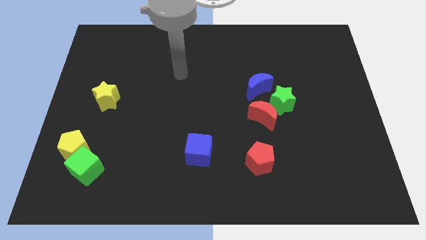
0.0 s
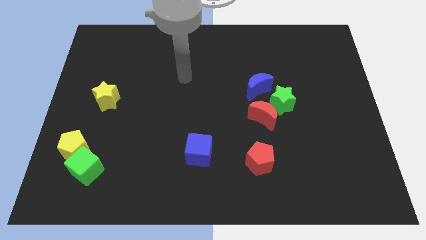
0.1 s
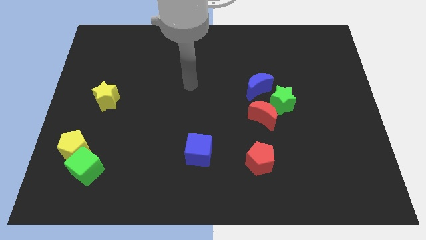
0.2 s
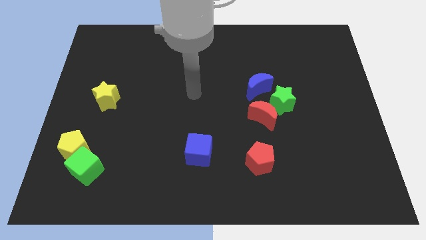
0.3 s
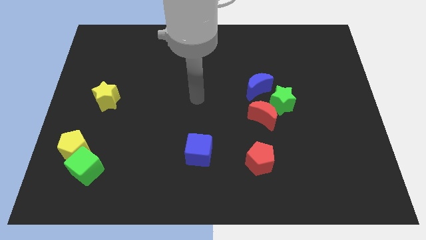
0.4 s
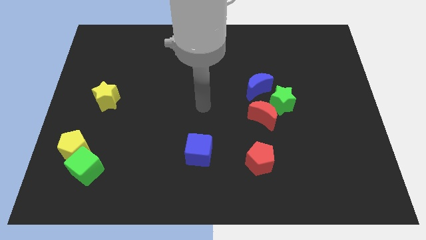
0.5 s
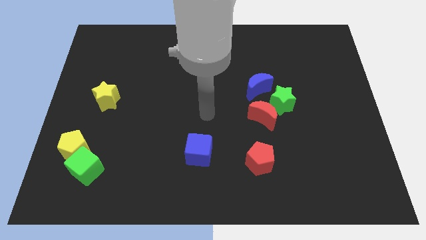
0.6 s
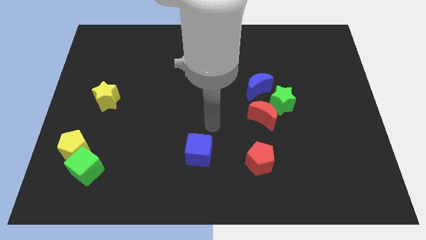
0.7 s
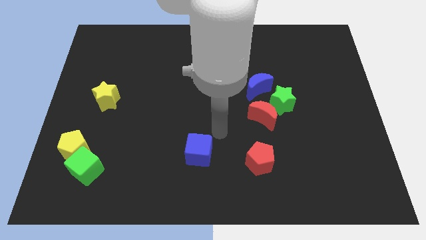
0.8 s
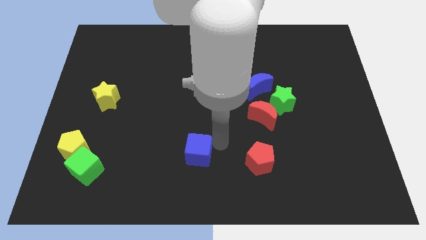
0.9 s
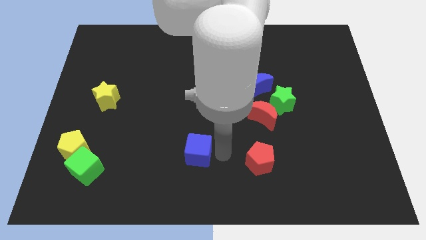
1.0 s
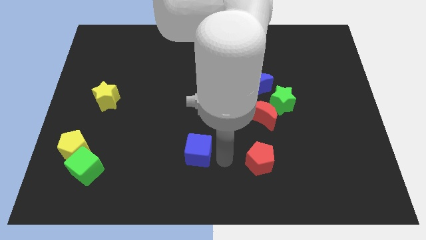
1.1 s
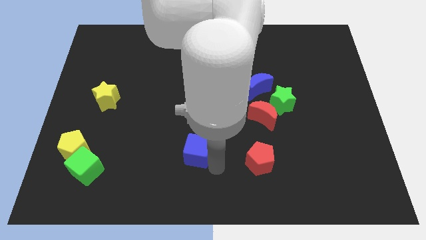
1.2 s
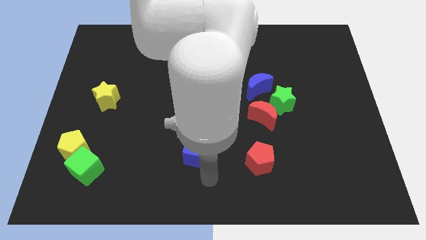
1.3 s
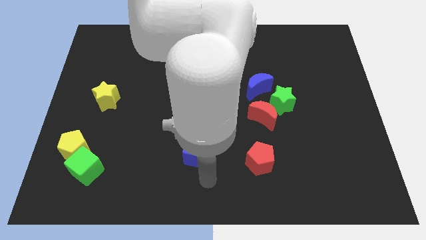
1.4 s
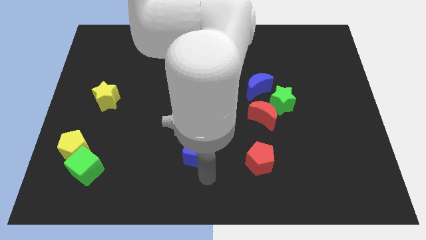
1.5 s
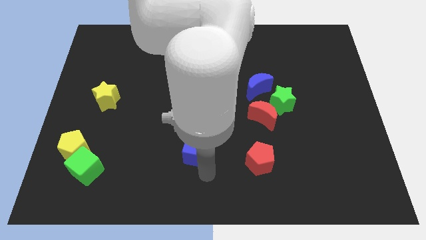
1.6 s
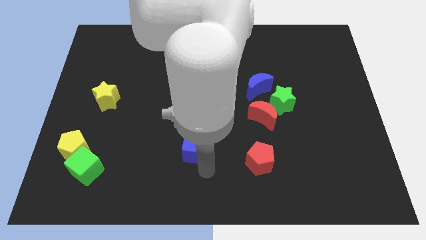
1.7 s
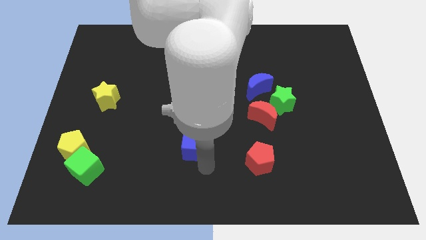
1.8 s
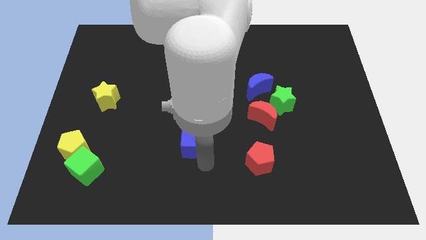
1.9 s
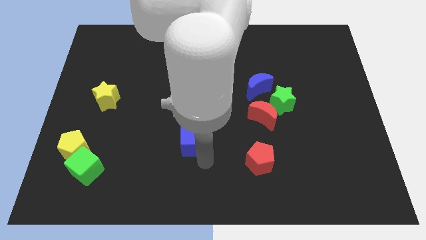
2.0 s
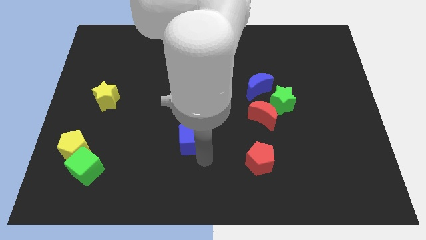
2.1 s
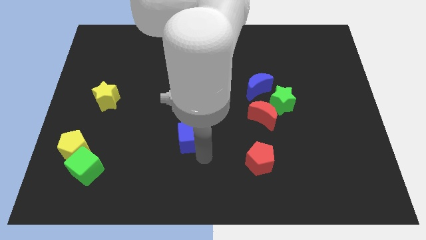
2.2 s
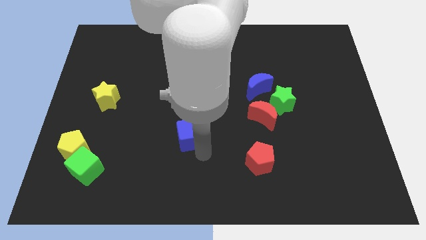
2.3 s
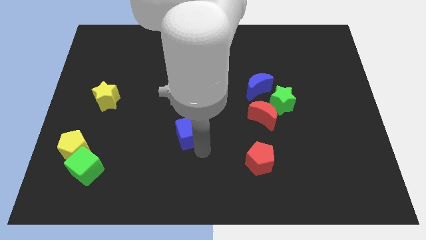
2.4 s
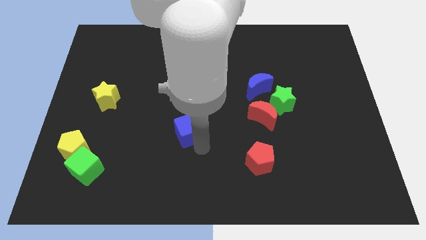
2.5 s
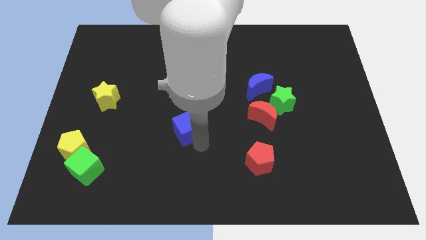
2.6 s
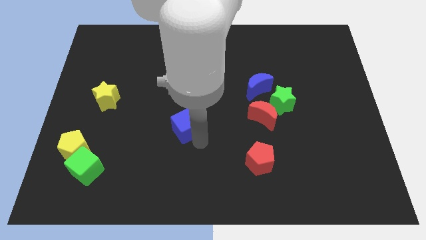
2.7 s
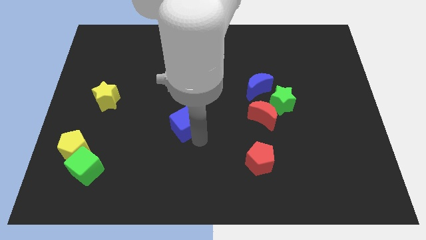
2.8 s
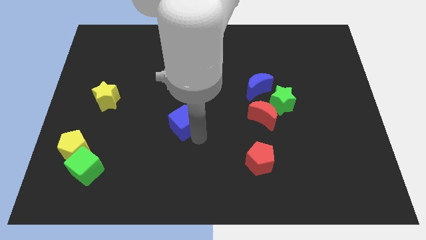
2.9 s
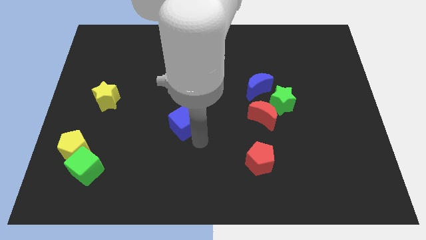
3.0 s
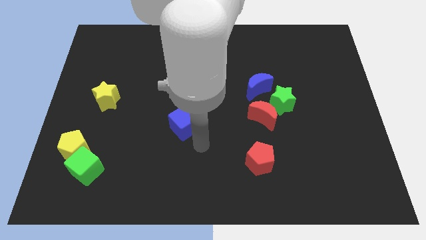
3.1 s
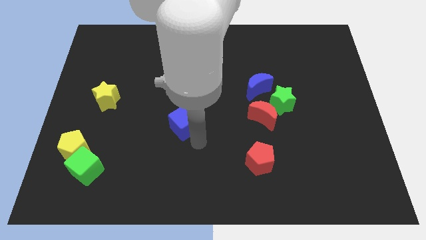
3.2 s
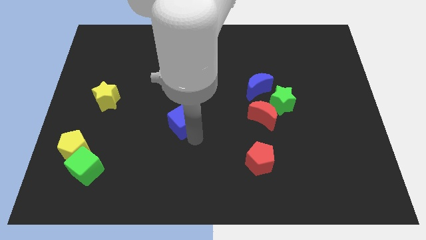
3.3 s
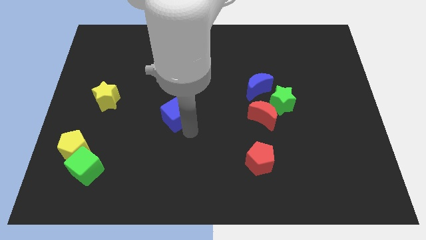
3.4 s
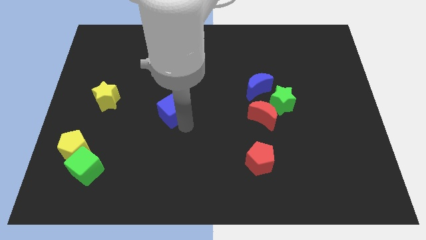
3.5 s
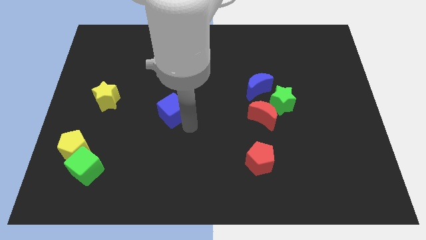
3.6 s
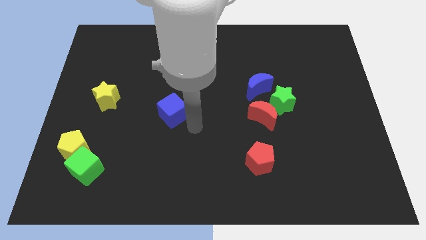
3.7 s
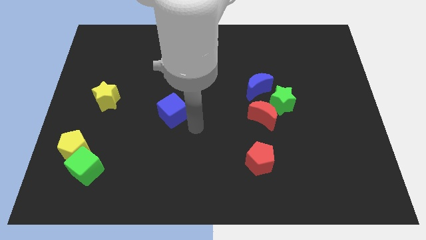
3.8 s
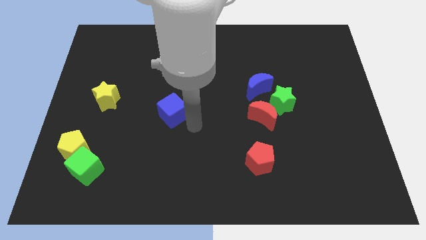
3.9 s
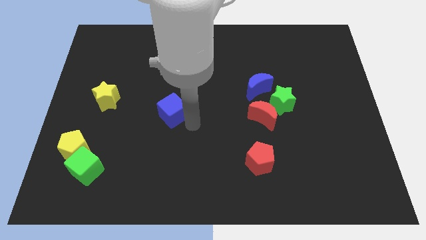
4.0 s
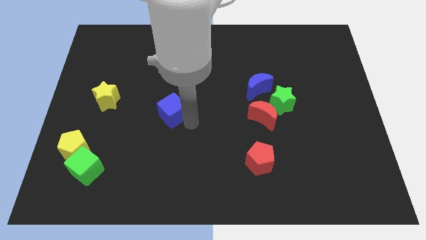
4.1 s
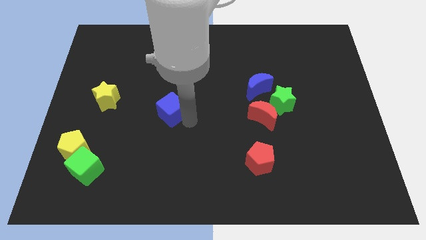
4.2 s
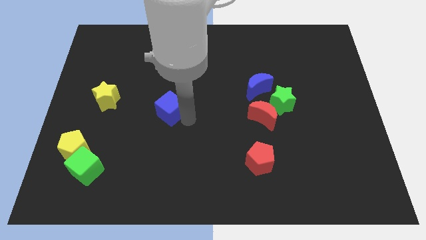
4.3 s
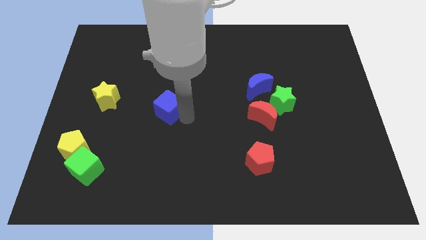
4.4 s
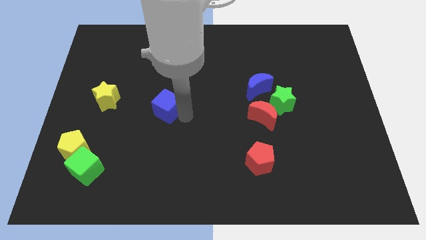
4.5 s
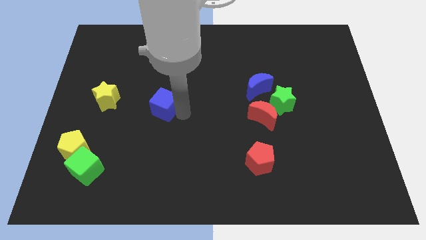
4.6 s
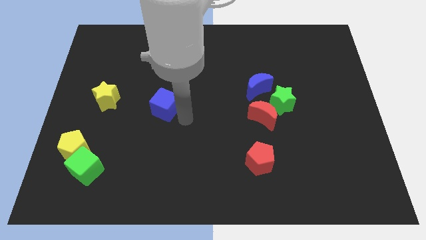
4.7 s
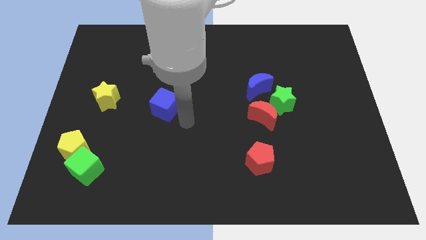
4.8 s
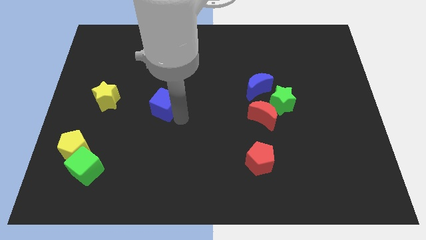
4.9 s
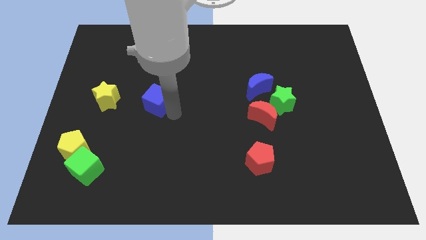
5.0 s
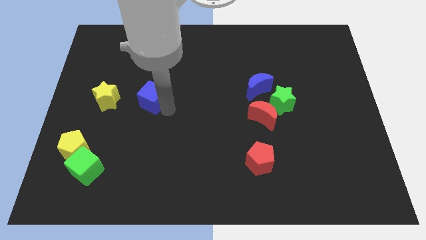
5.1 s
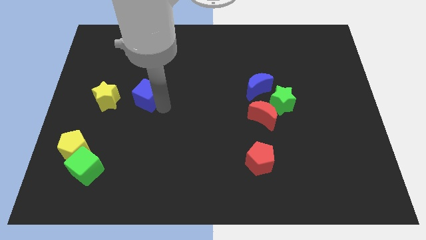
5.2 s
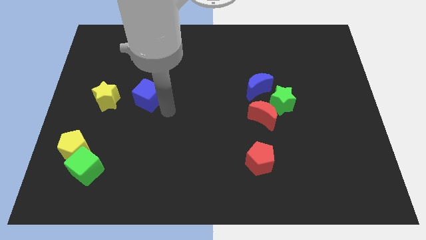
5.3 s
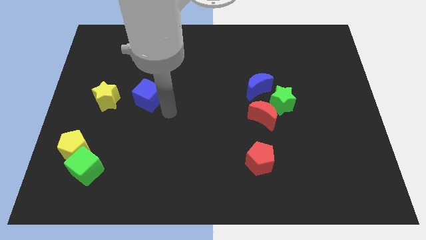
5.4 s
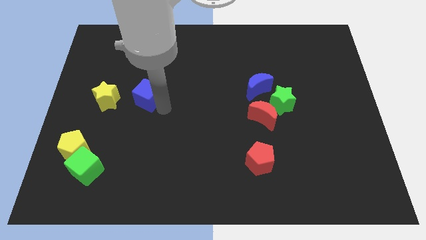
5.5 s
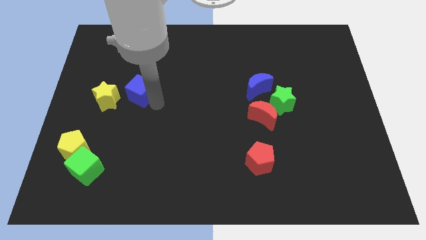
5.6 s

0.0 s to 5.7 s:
push the blue cube upwards and then left

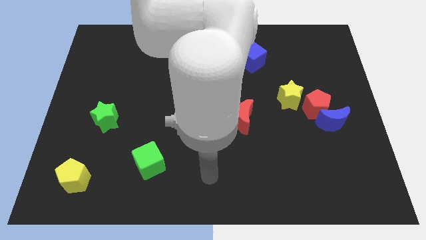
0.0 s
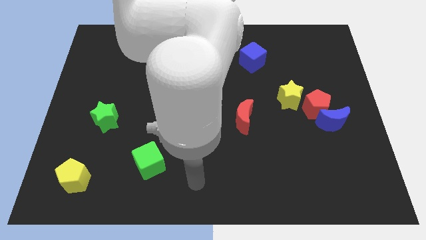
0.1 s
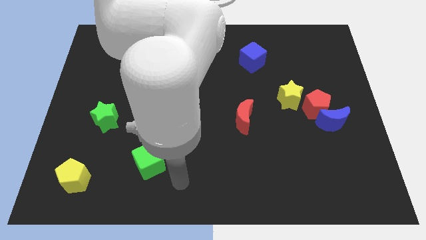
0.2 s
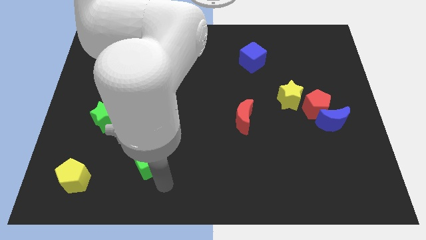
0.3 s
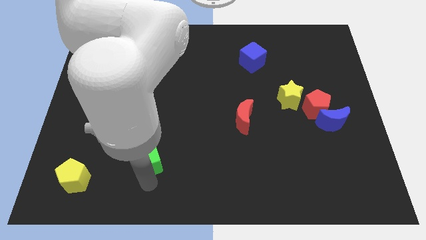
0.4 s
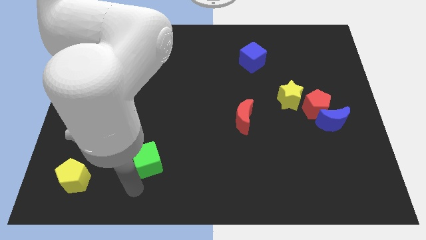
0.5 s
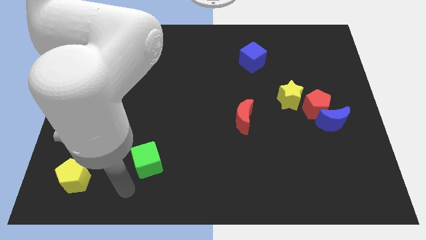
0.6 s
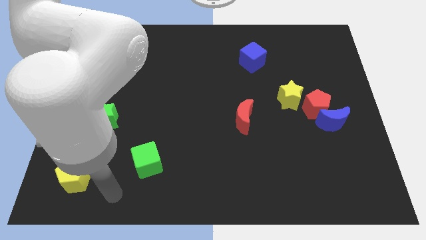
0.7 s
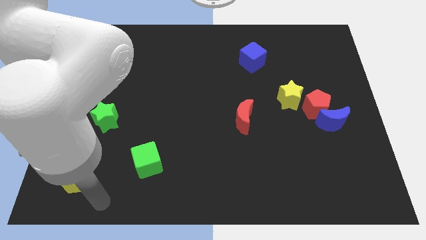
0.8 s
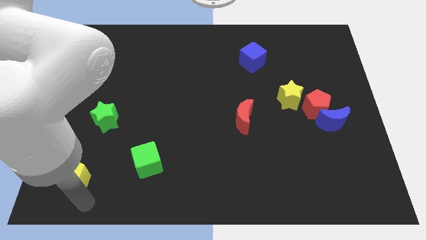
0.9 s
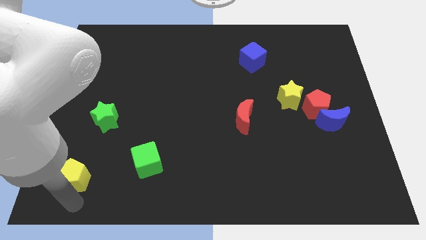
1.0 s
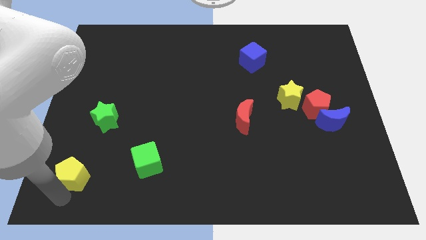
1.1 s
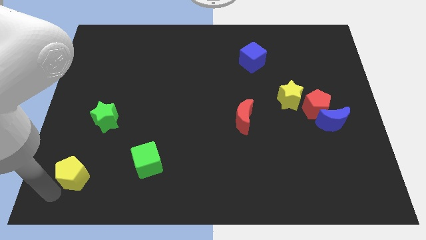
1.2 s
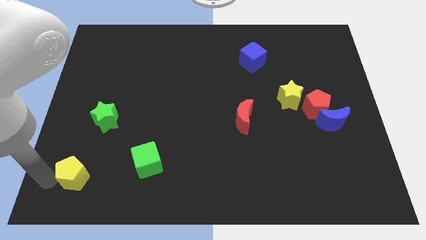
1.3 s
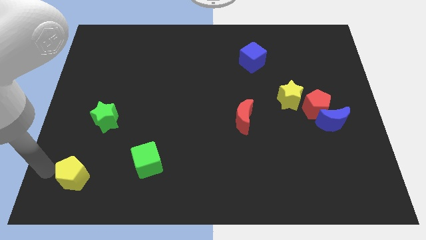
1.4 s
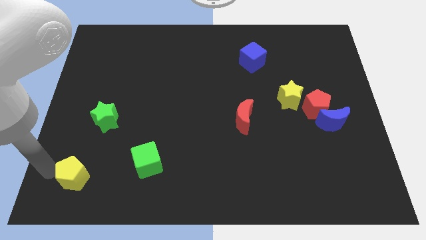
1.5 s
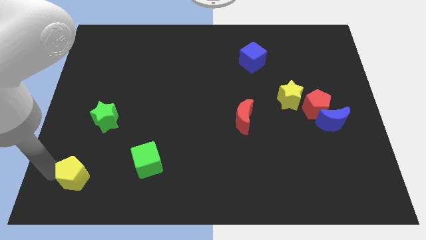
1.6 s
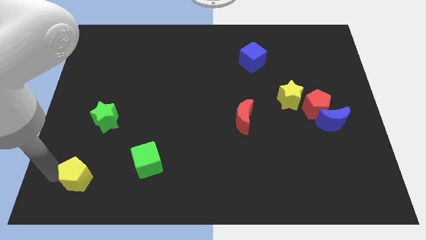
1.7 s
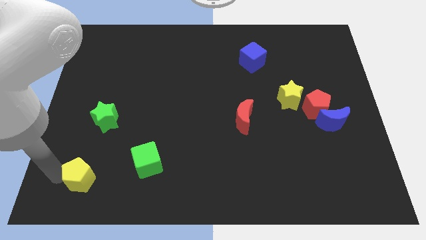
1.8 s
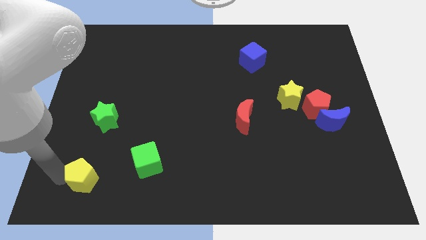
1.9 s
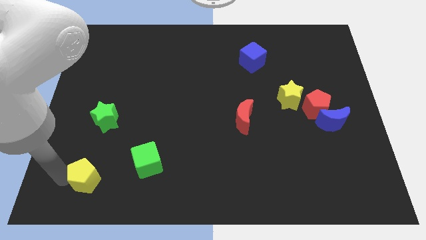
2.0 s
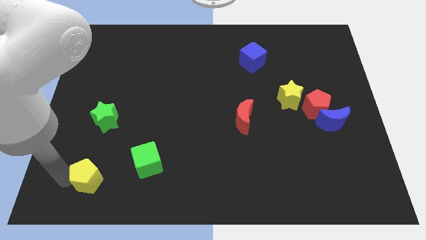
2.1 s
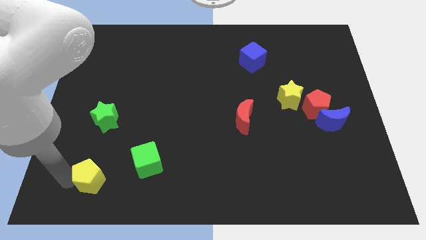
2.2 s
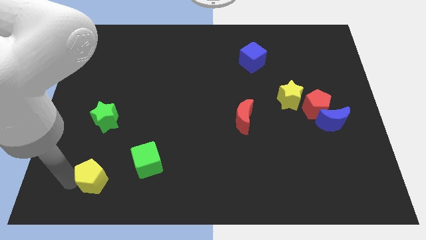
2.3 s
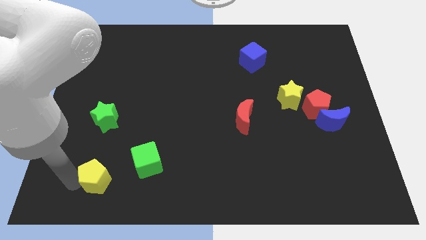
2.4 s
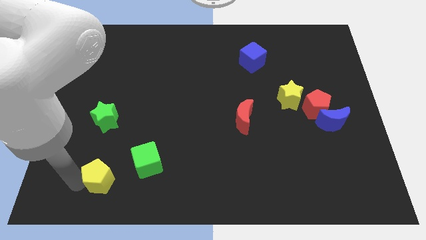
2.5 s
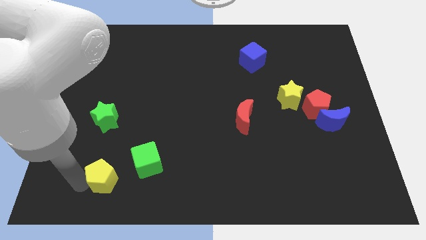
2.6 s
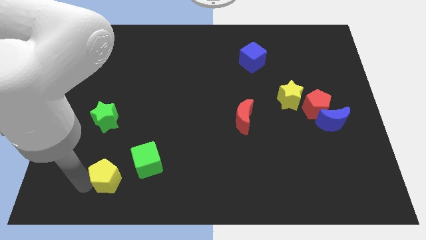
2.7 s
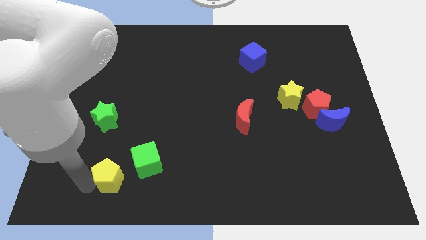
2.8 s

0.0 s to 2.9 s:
slide the yellow pentagon to the right a little
